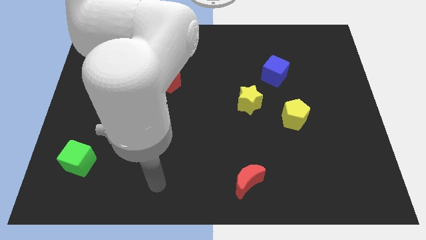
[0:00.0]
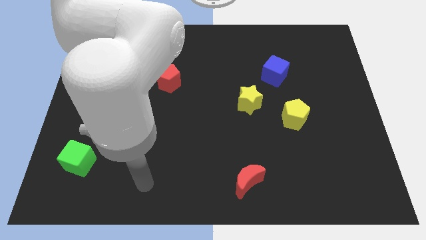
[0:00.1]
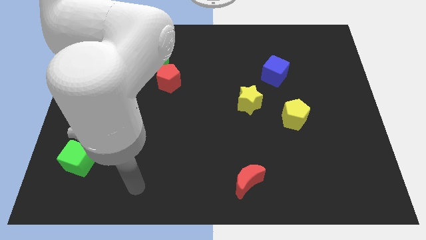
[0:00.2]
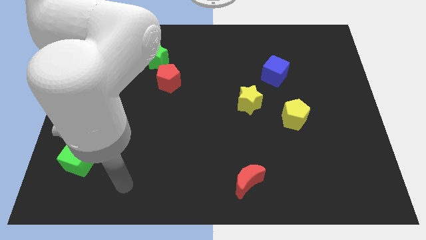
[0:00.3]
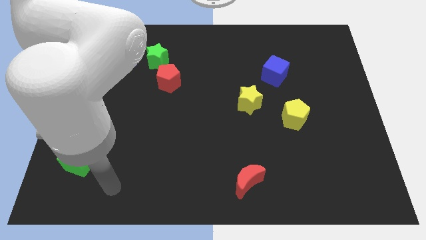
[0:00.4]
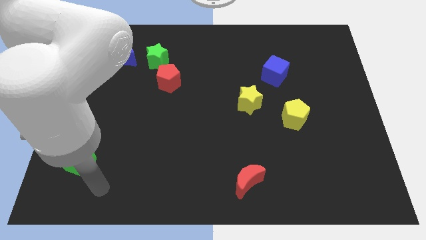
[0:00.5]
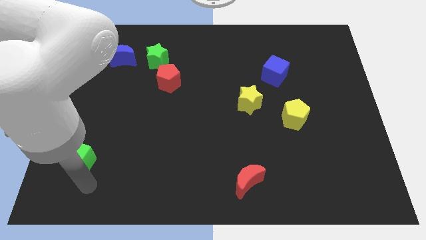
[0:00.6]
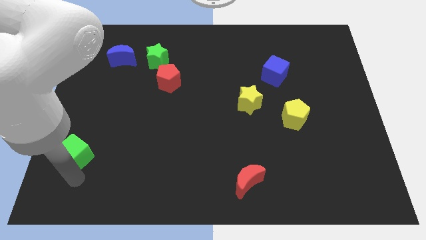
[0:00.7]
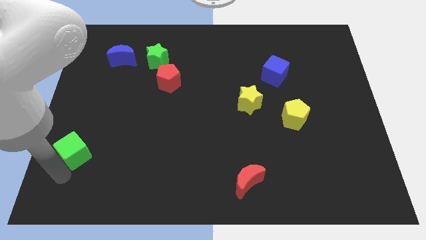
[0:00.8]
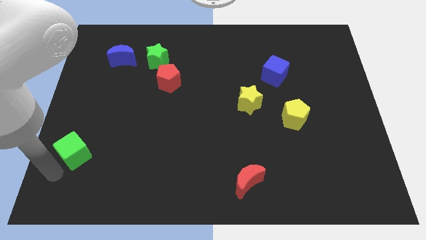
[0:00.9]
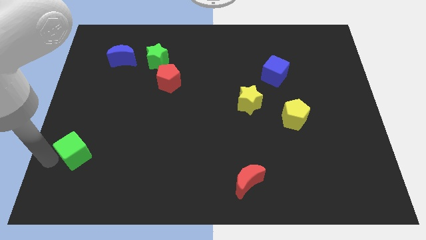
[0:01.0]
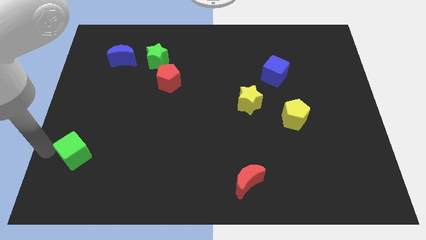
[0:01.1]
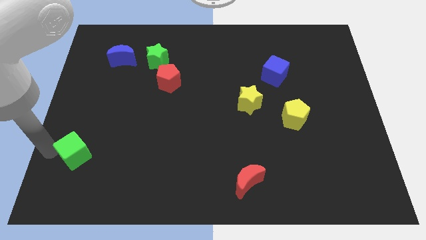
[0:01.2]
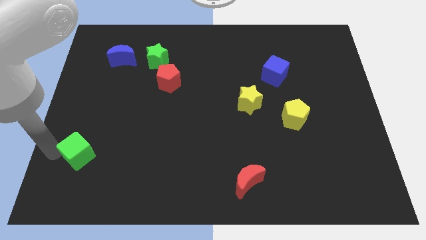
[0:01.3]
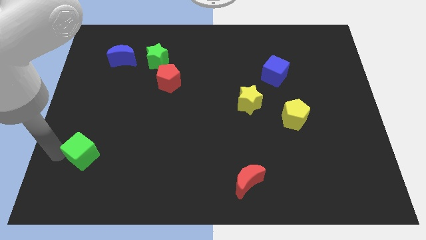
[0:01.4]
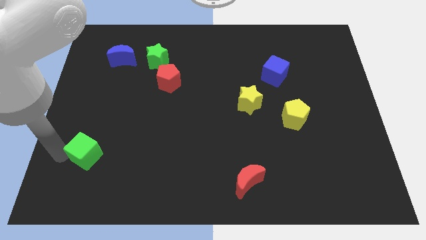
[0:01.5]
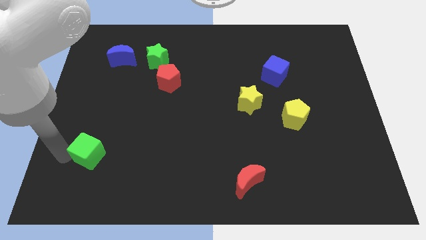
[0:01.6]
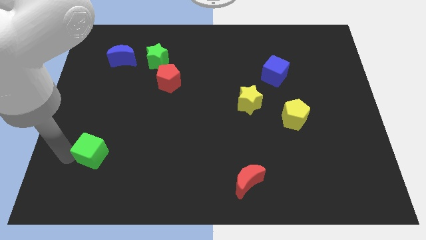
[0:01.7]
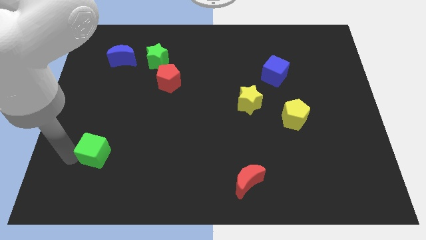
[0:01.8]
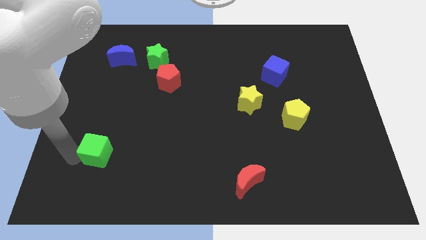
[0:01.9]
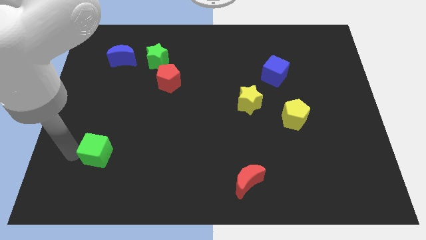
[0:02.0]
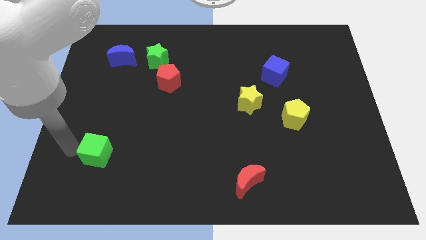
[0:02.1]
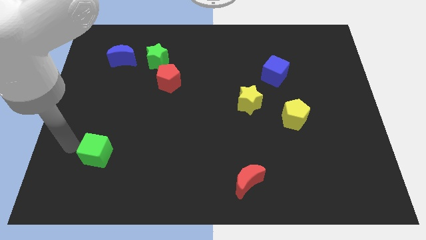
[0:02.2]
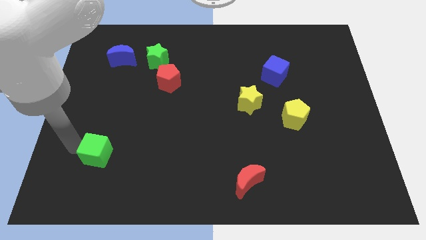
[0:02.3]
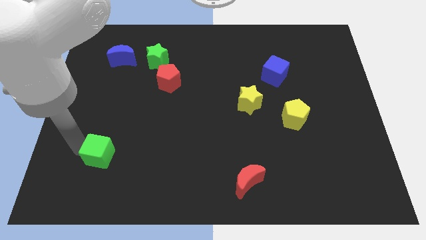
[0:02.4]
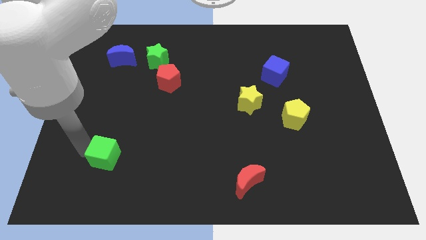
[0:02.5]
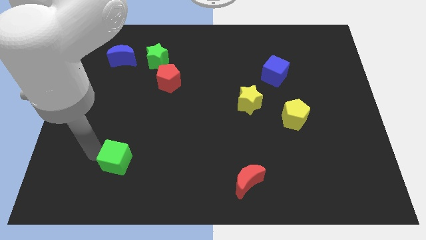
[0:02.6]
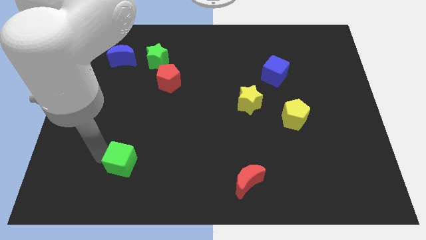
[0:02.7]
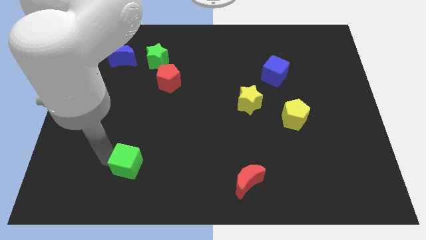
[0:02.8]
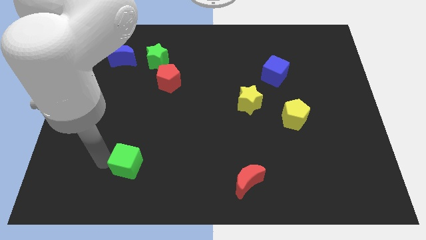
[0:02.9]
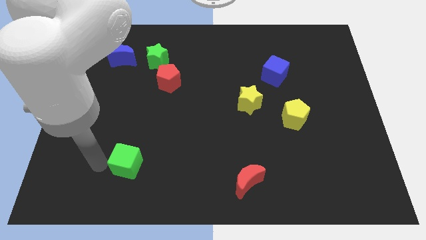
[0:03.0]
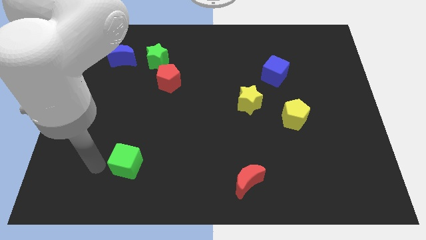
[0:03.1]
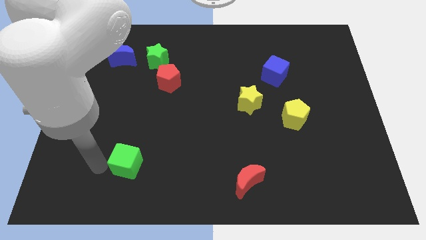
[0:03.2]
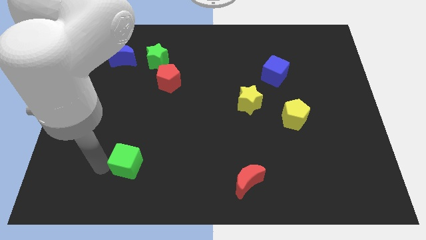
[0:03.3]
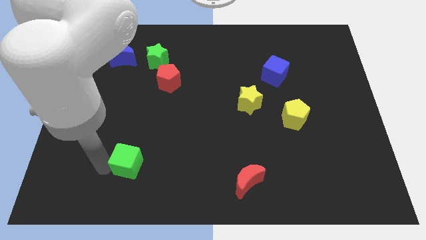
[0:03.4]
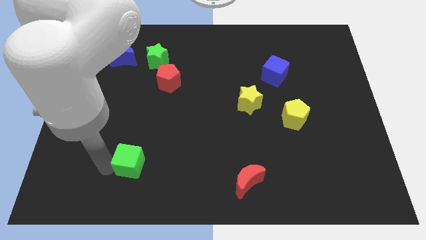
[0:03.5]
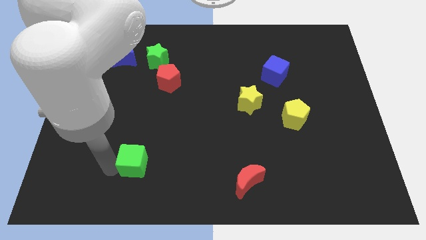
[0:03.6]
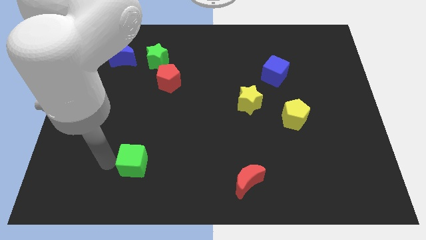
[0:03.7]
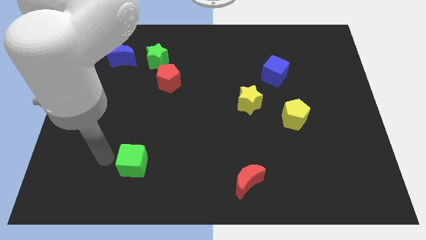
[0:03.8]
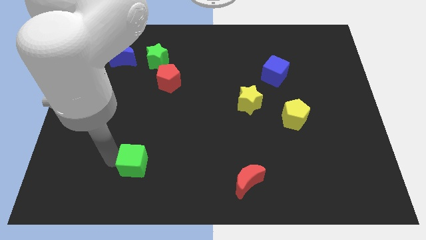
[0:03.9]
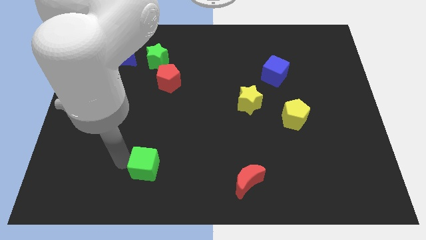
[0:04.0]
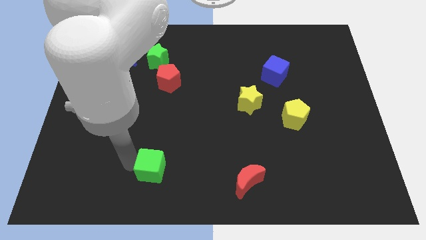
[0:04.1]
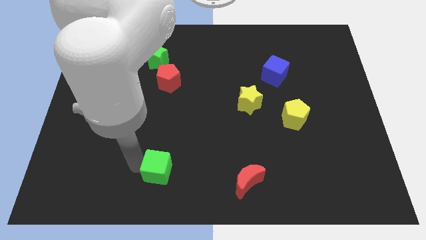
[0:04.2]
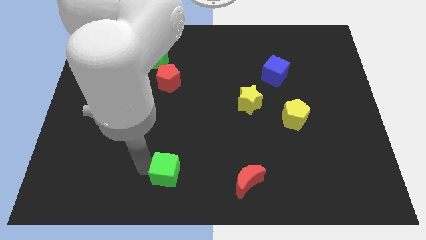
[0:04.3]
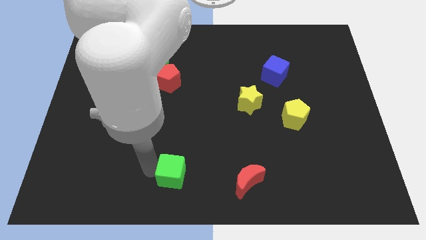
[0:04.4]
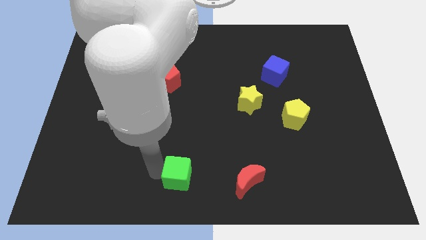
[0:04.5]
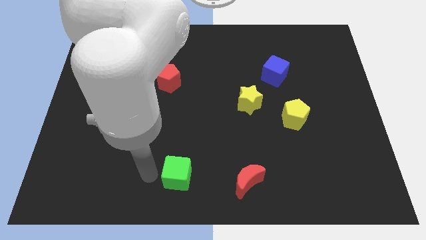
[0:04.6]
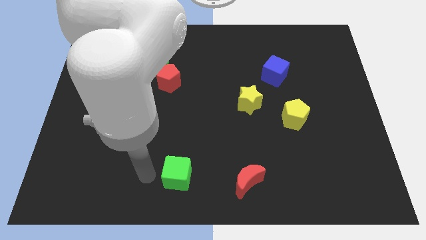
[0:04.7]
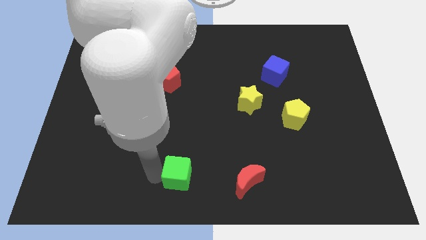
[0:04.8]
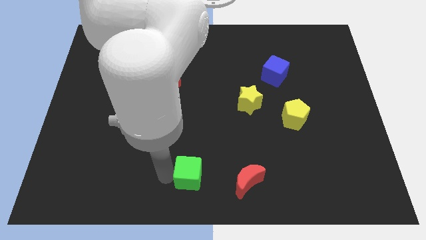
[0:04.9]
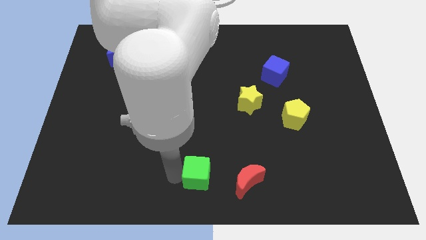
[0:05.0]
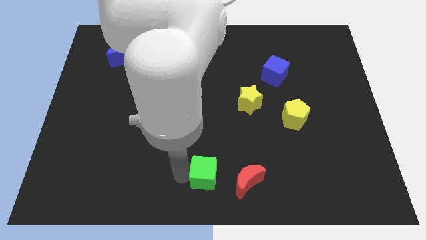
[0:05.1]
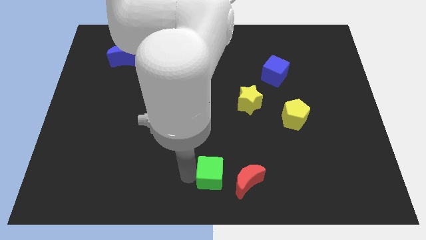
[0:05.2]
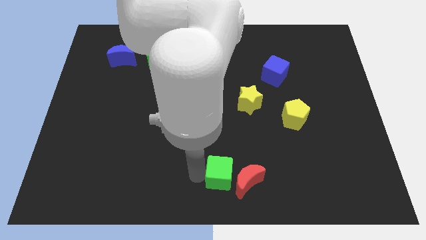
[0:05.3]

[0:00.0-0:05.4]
push the green cube next to the red moon

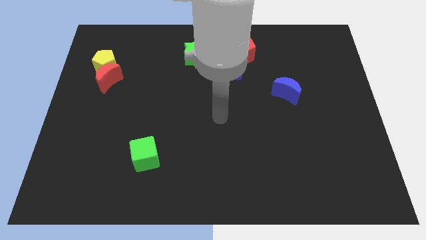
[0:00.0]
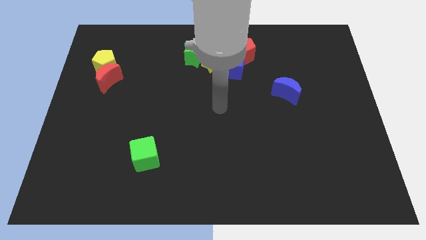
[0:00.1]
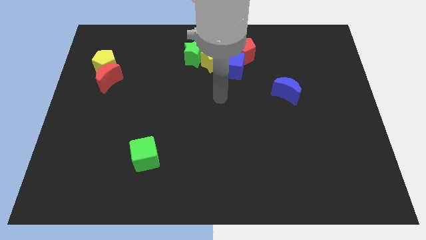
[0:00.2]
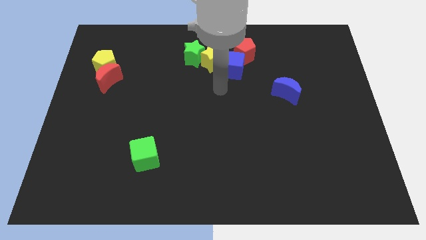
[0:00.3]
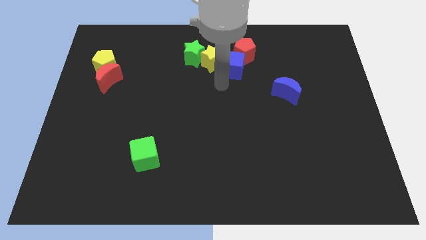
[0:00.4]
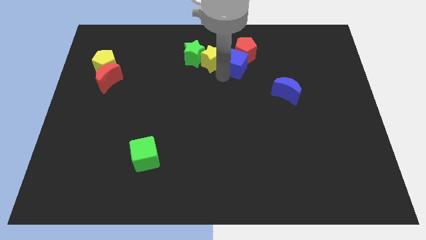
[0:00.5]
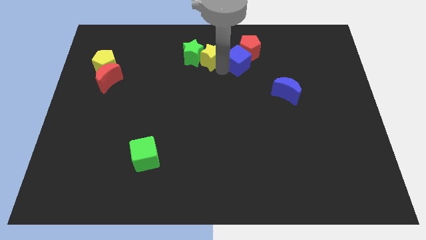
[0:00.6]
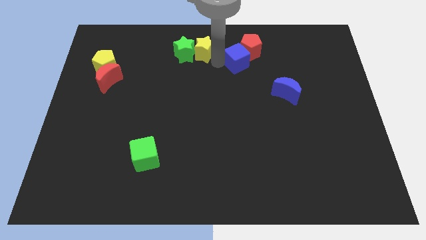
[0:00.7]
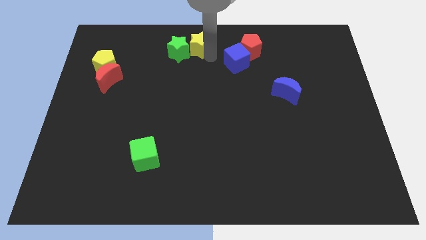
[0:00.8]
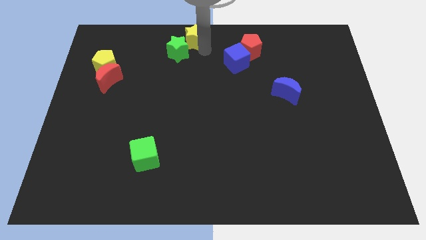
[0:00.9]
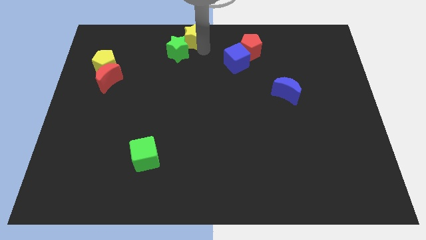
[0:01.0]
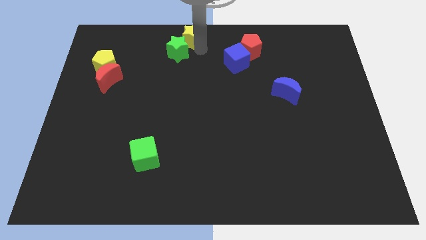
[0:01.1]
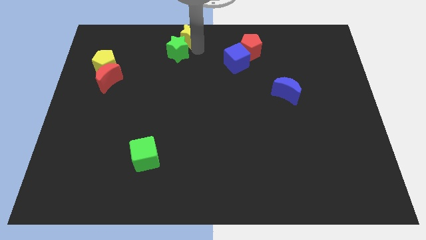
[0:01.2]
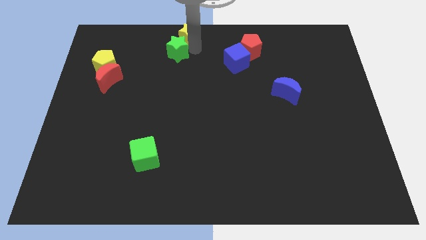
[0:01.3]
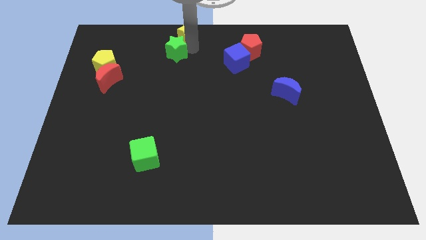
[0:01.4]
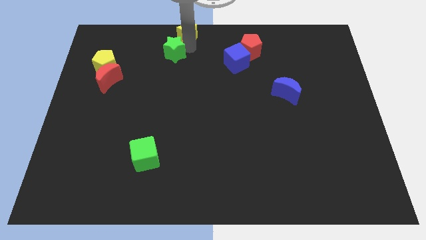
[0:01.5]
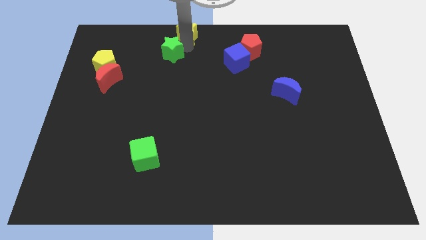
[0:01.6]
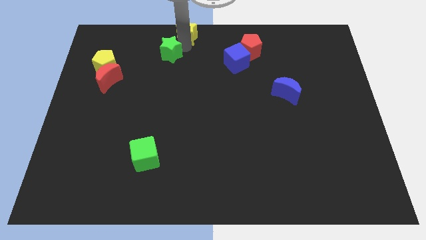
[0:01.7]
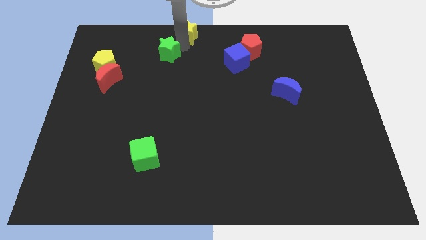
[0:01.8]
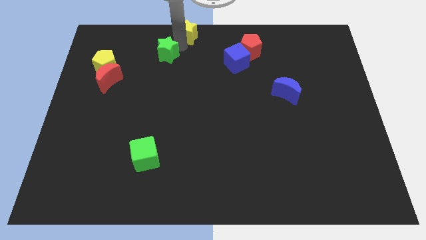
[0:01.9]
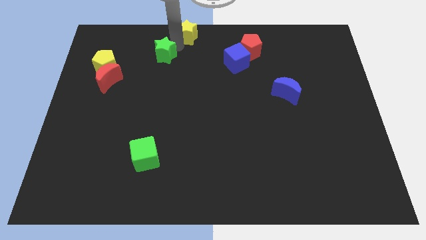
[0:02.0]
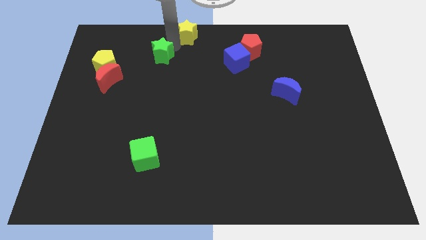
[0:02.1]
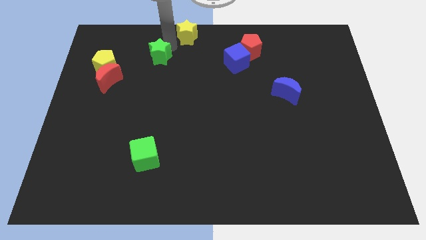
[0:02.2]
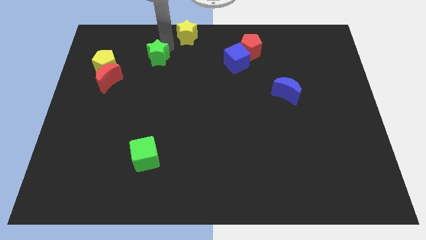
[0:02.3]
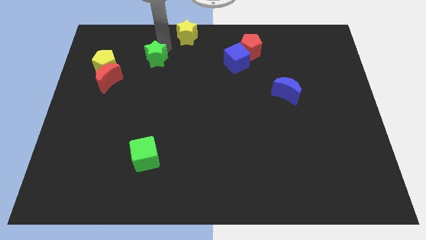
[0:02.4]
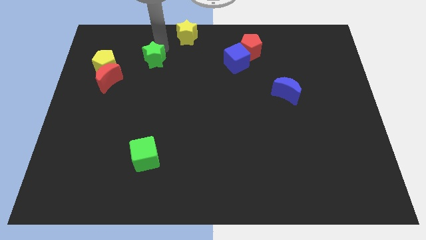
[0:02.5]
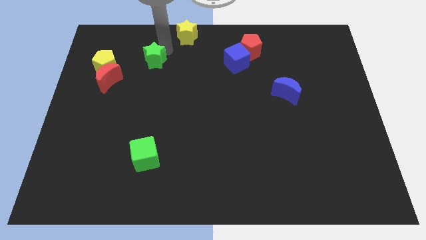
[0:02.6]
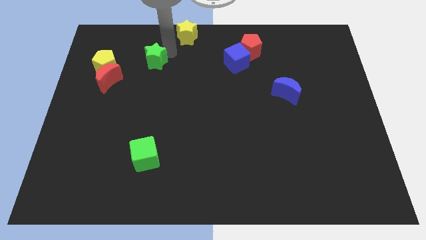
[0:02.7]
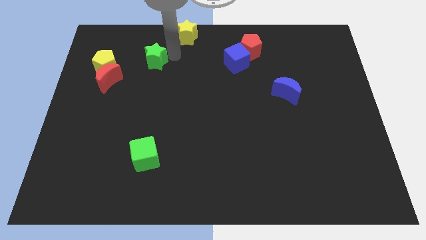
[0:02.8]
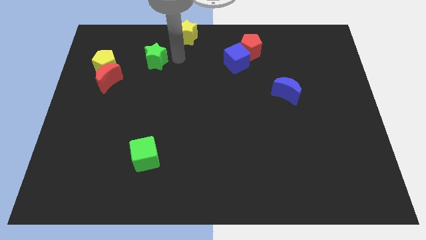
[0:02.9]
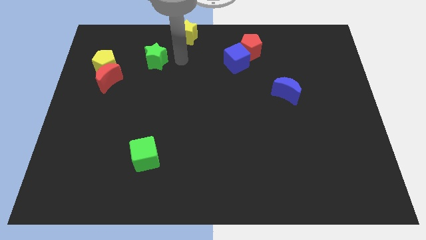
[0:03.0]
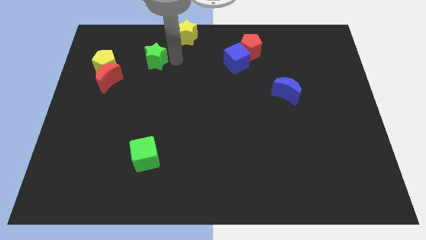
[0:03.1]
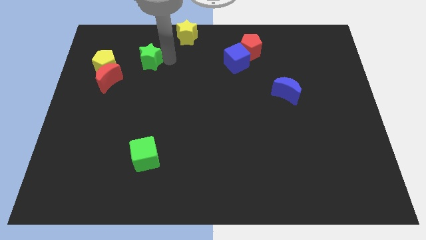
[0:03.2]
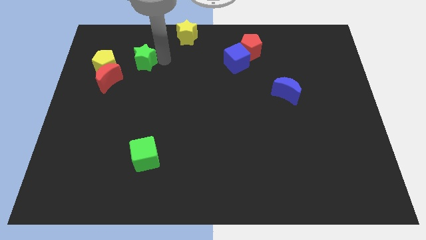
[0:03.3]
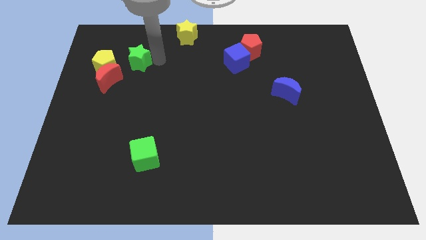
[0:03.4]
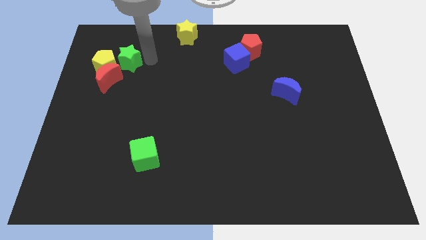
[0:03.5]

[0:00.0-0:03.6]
move the green star to the yellow pentagon
